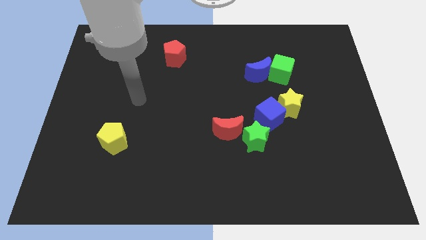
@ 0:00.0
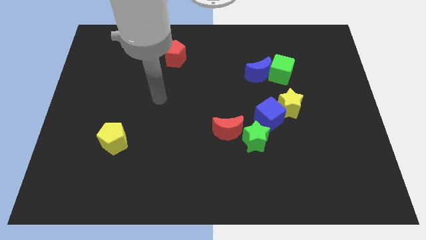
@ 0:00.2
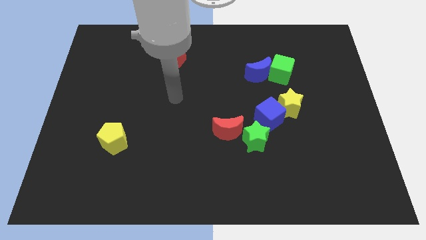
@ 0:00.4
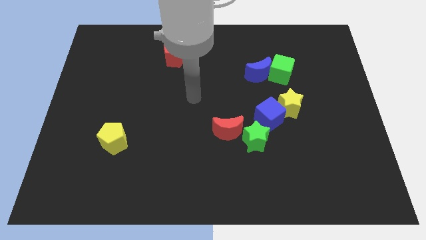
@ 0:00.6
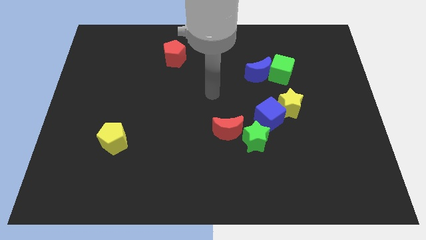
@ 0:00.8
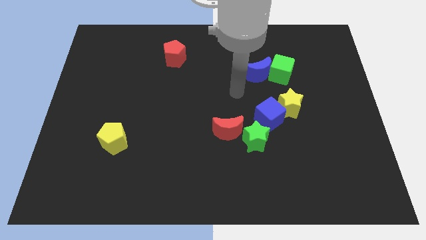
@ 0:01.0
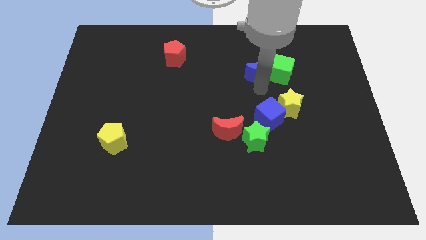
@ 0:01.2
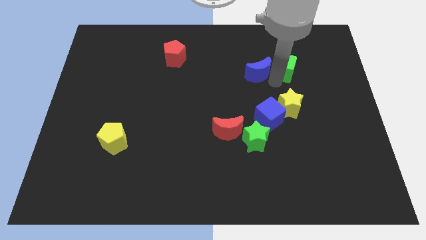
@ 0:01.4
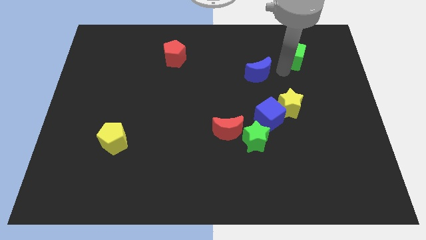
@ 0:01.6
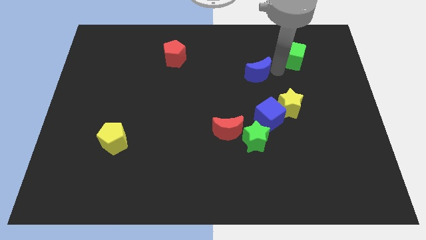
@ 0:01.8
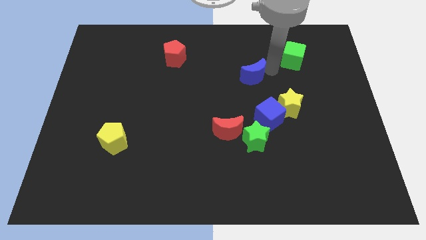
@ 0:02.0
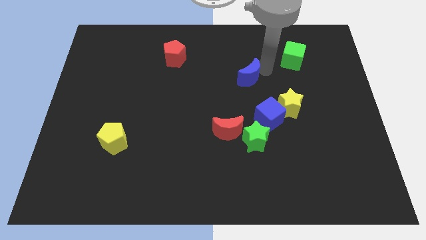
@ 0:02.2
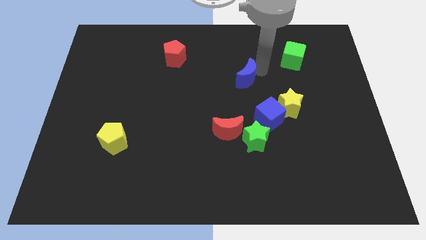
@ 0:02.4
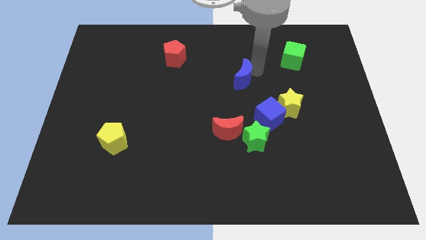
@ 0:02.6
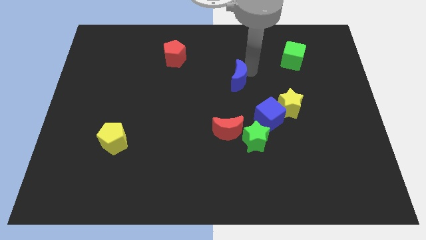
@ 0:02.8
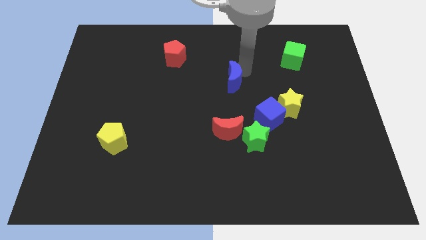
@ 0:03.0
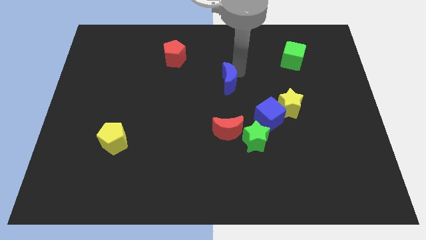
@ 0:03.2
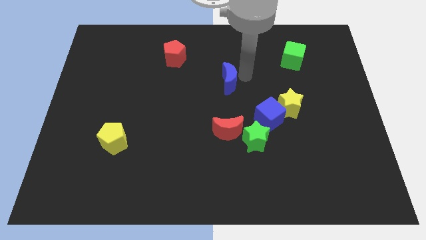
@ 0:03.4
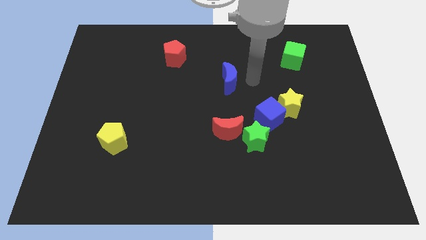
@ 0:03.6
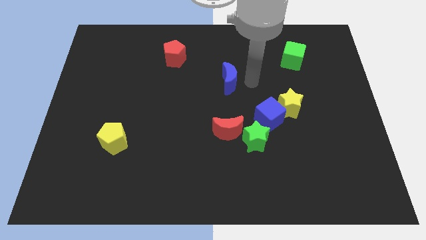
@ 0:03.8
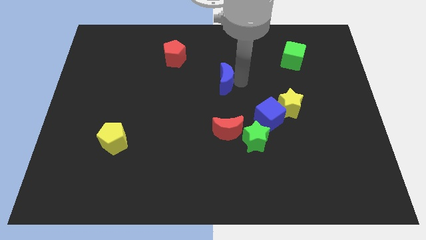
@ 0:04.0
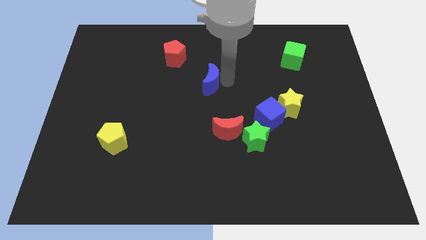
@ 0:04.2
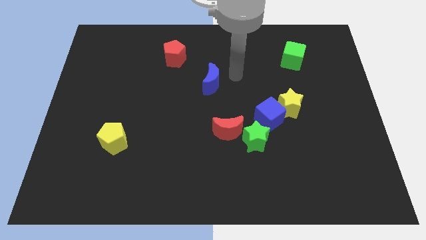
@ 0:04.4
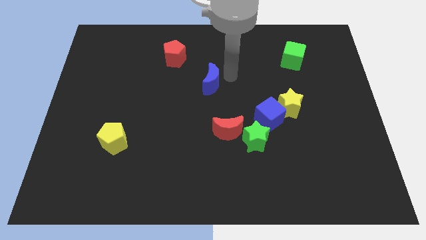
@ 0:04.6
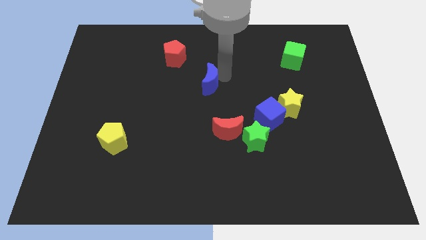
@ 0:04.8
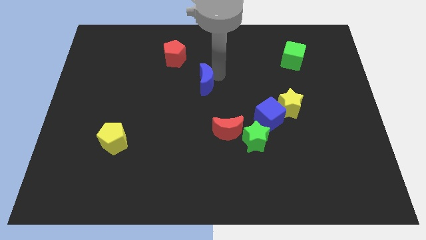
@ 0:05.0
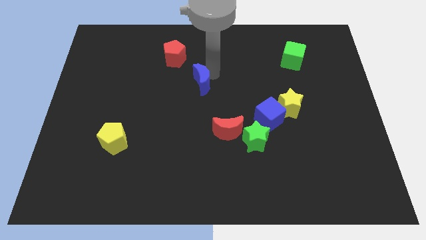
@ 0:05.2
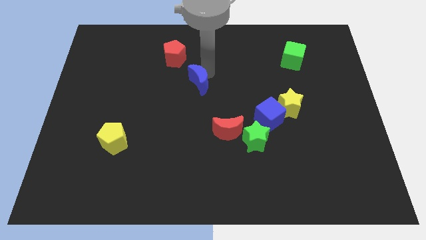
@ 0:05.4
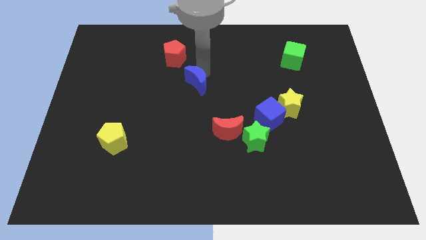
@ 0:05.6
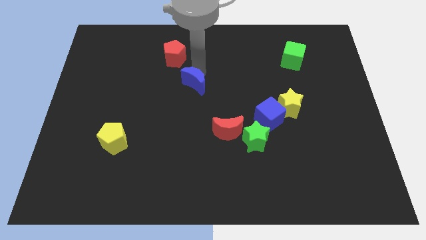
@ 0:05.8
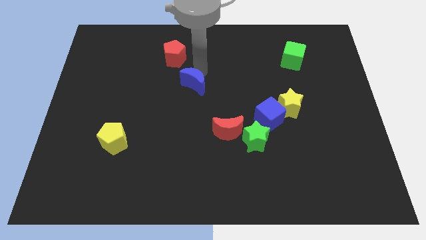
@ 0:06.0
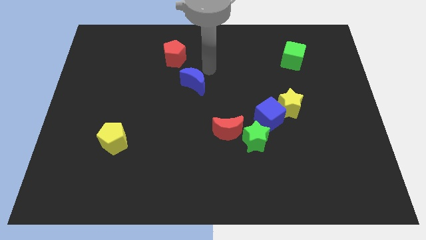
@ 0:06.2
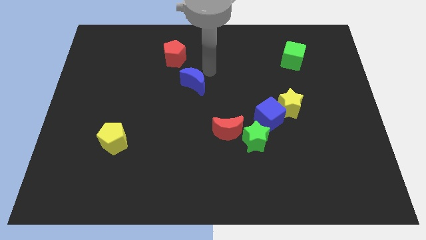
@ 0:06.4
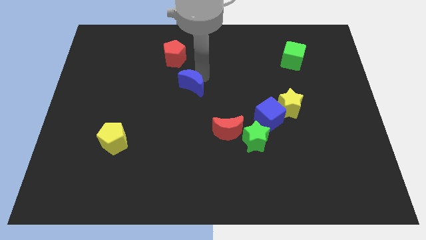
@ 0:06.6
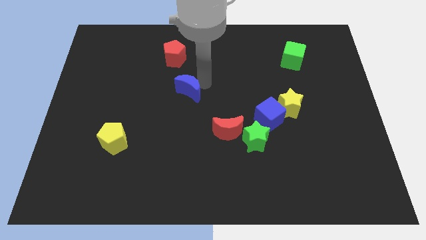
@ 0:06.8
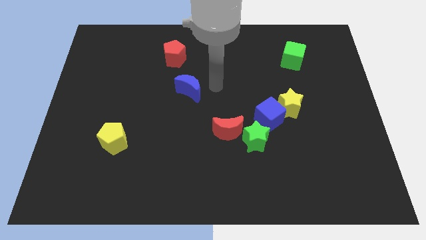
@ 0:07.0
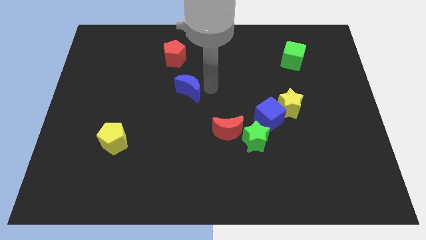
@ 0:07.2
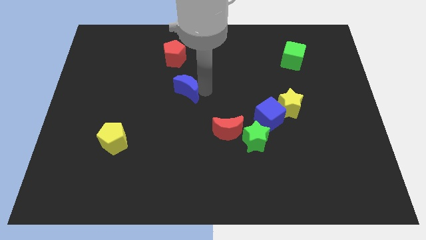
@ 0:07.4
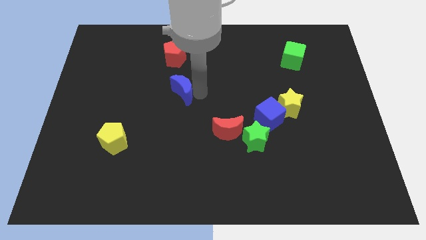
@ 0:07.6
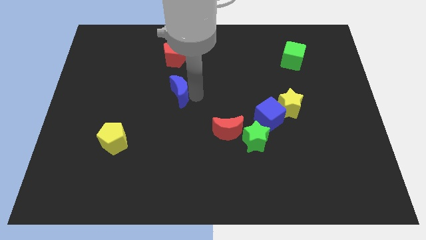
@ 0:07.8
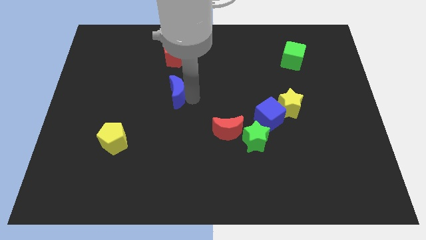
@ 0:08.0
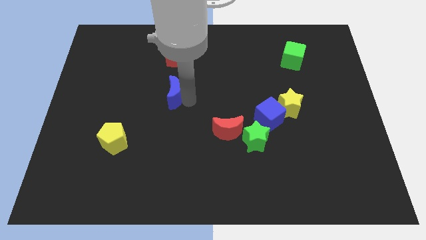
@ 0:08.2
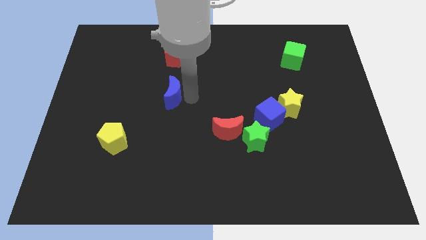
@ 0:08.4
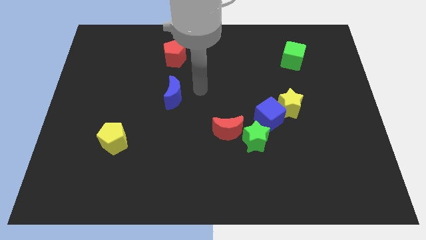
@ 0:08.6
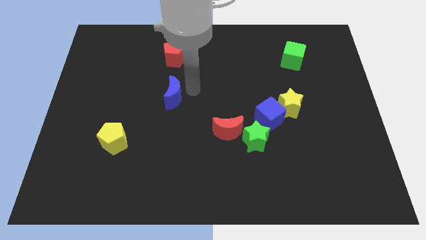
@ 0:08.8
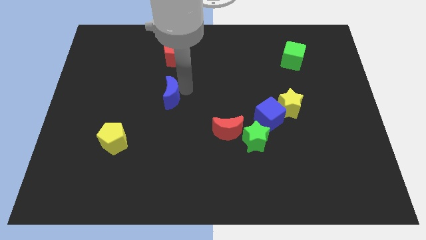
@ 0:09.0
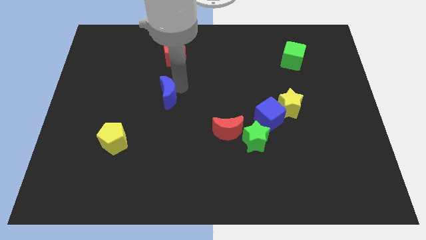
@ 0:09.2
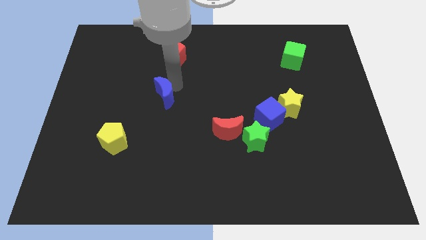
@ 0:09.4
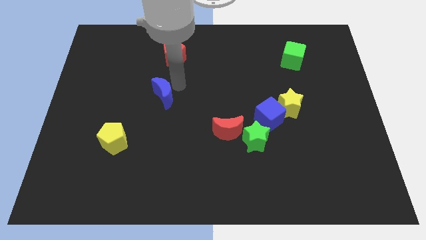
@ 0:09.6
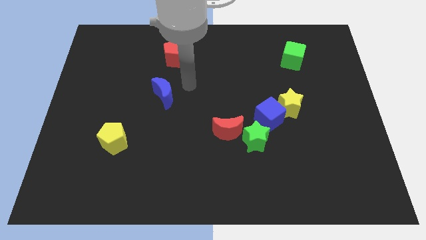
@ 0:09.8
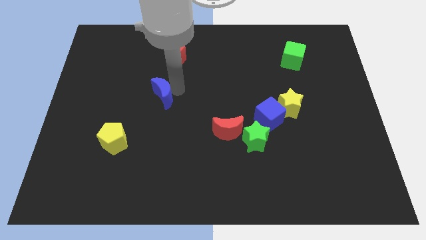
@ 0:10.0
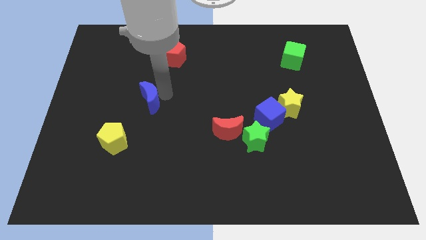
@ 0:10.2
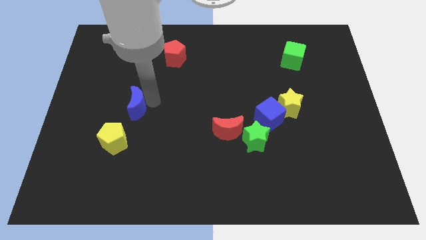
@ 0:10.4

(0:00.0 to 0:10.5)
slide the blue moon to the top side of the yellow pentagon

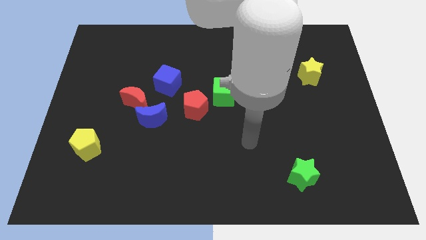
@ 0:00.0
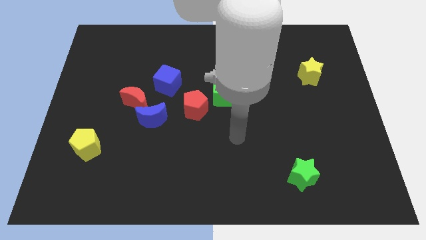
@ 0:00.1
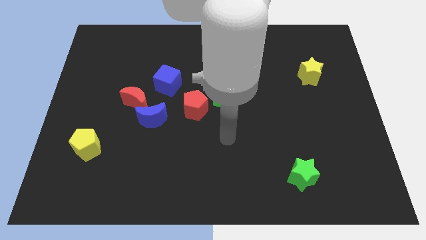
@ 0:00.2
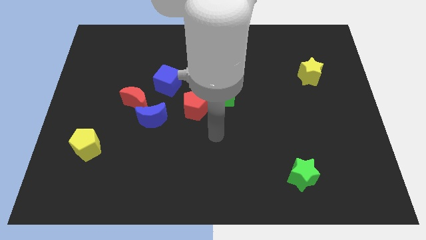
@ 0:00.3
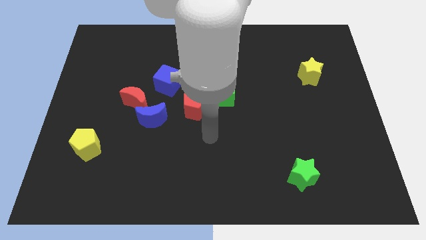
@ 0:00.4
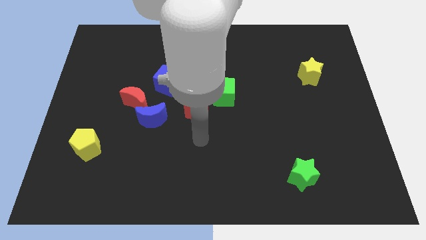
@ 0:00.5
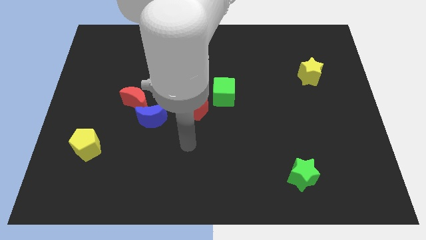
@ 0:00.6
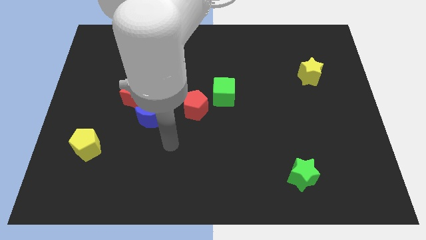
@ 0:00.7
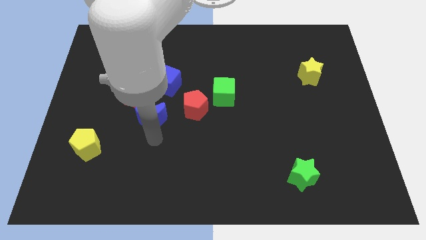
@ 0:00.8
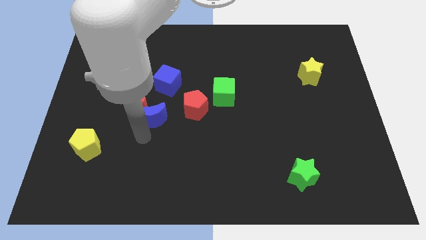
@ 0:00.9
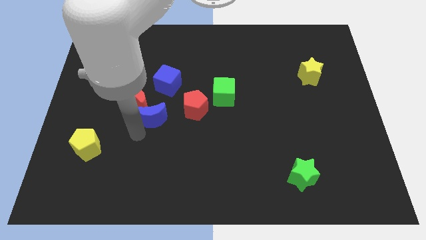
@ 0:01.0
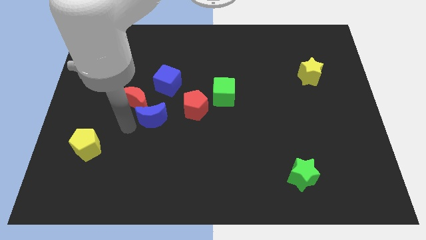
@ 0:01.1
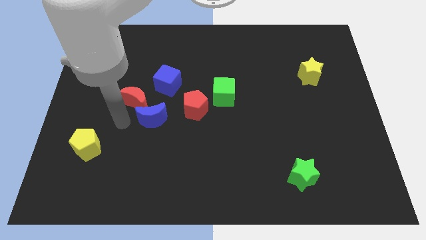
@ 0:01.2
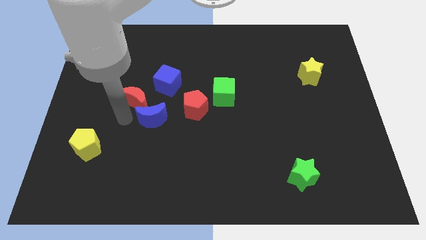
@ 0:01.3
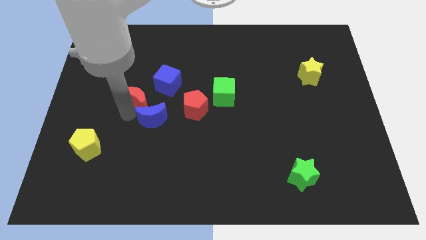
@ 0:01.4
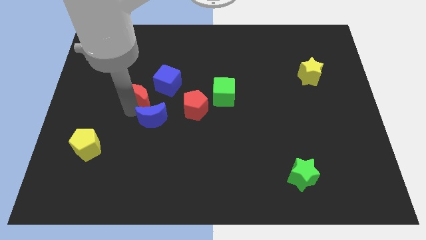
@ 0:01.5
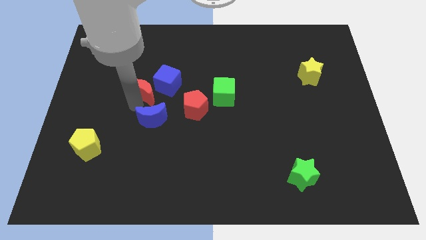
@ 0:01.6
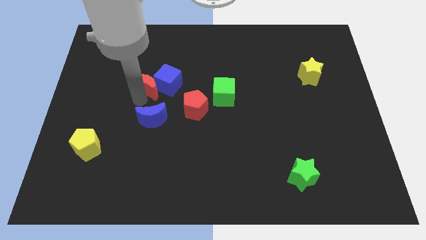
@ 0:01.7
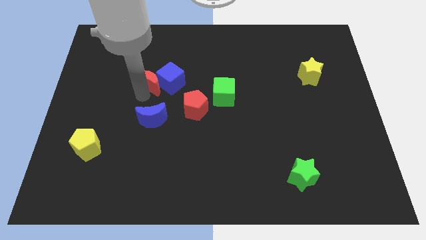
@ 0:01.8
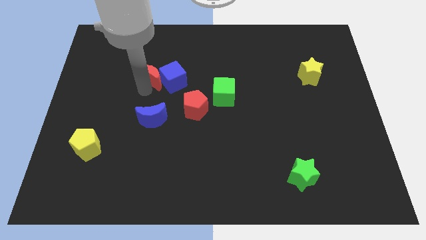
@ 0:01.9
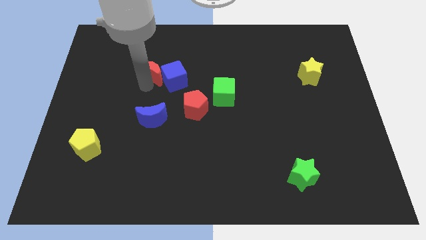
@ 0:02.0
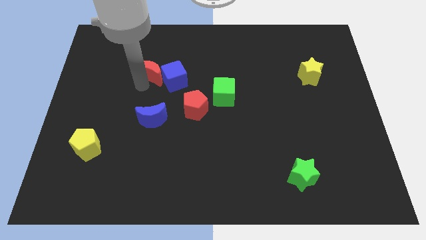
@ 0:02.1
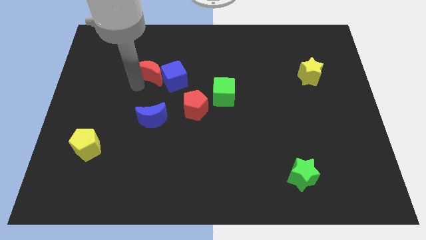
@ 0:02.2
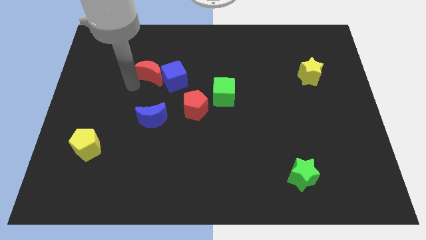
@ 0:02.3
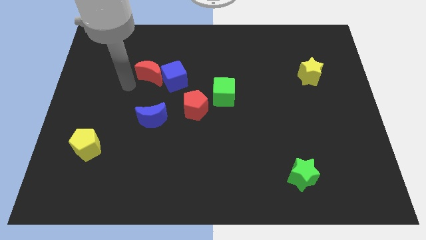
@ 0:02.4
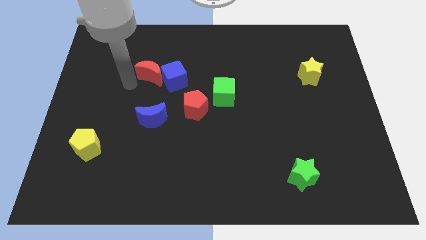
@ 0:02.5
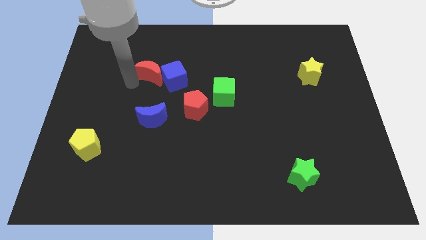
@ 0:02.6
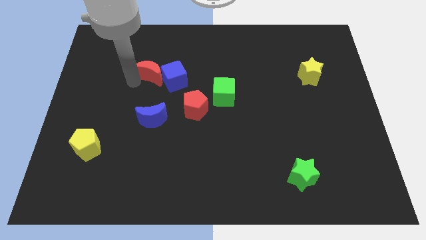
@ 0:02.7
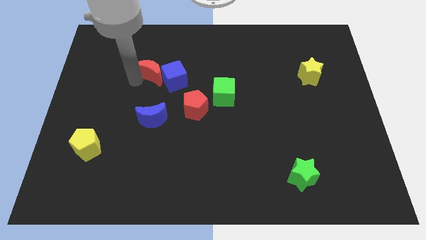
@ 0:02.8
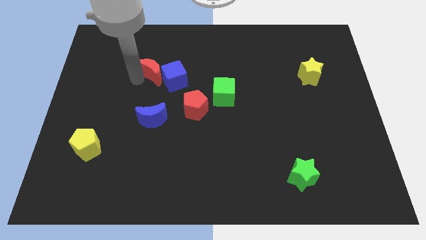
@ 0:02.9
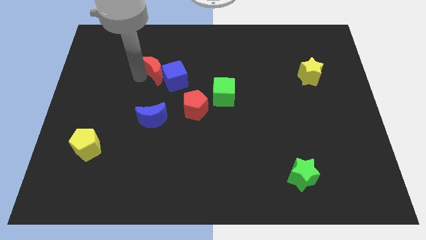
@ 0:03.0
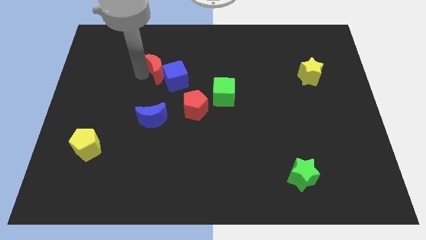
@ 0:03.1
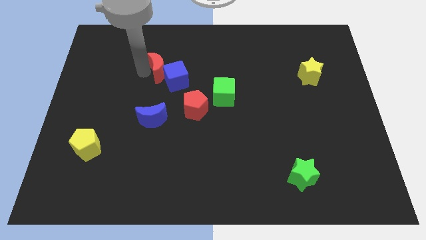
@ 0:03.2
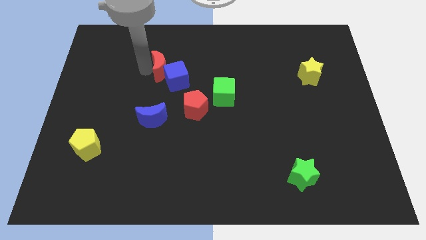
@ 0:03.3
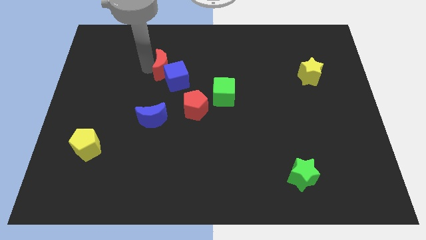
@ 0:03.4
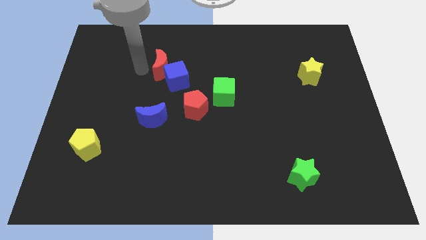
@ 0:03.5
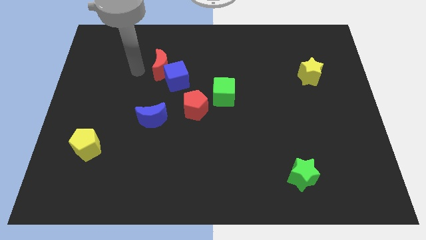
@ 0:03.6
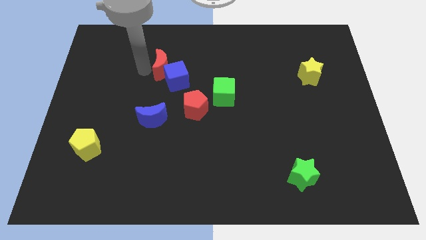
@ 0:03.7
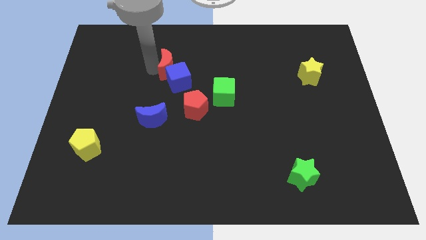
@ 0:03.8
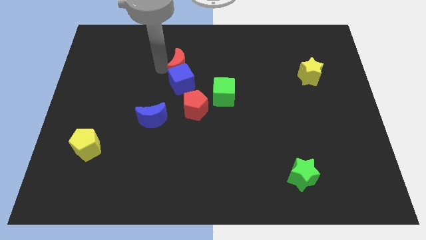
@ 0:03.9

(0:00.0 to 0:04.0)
slide the red moon diagonally up and to the right of the blue cube
